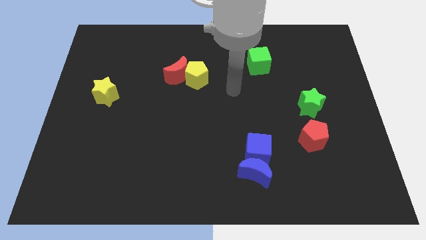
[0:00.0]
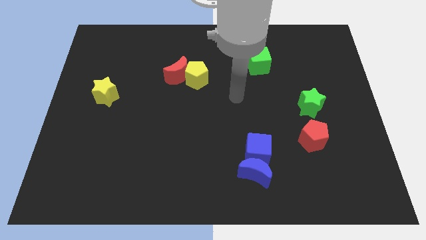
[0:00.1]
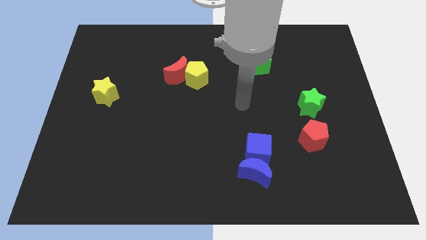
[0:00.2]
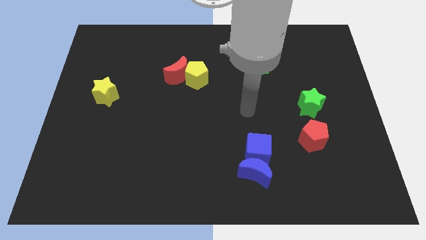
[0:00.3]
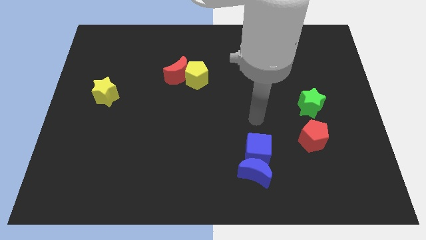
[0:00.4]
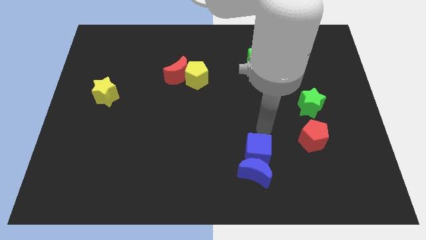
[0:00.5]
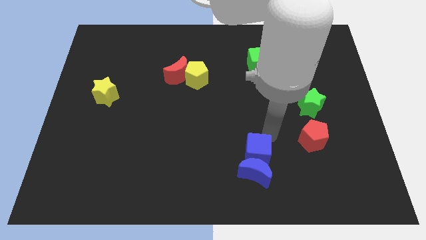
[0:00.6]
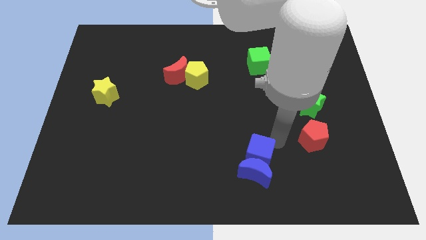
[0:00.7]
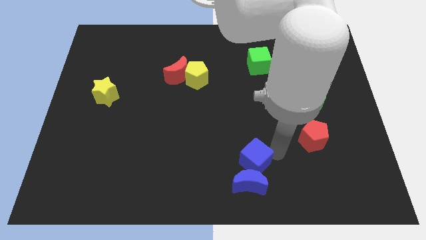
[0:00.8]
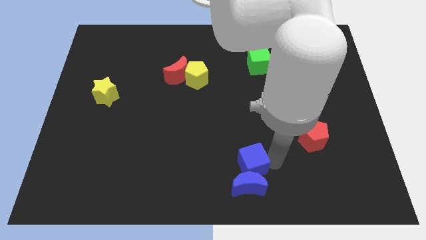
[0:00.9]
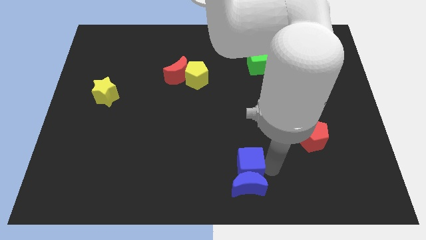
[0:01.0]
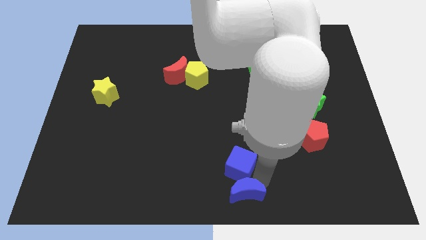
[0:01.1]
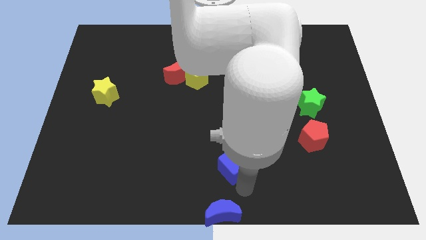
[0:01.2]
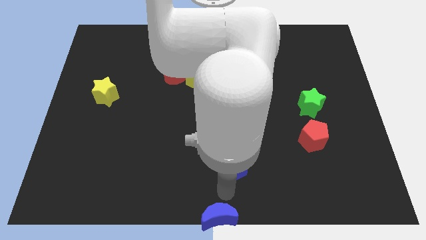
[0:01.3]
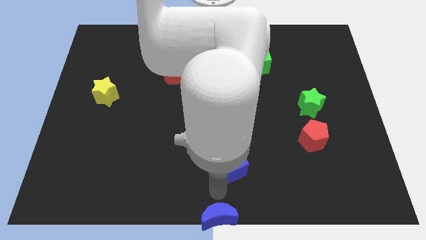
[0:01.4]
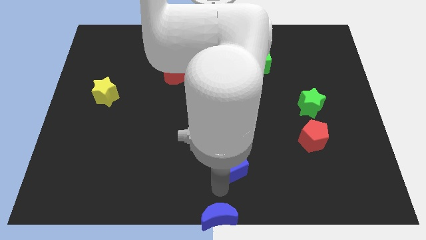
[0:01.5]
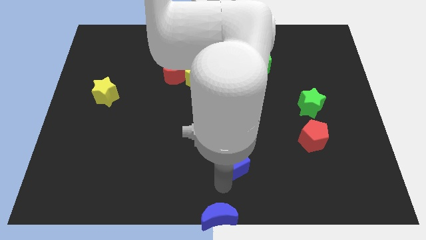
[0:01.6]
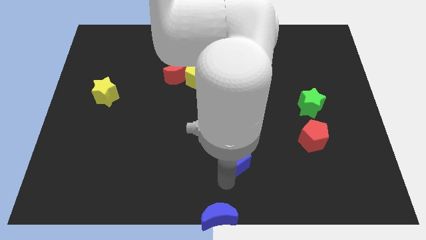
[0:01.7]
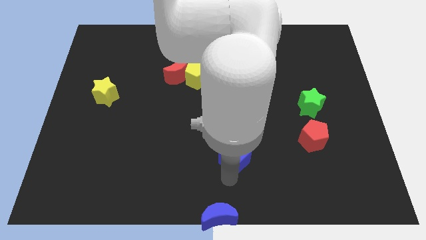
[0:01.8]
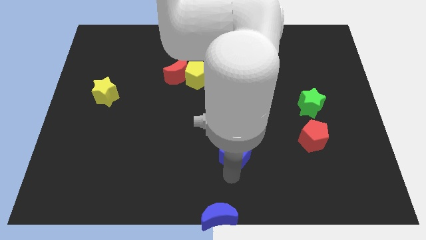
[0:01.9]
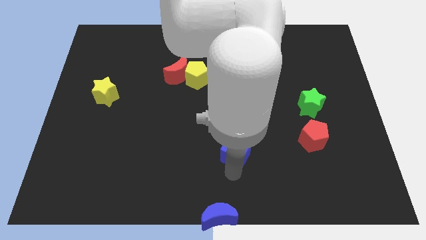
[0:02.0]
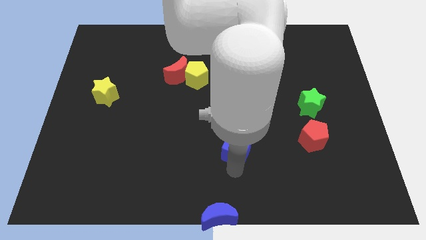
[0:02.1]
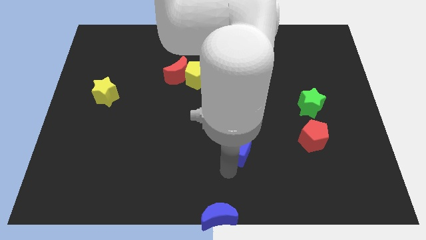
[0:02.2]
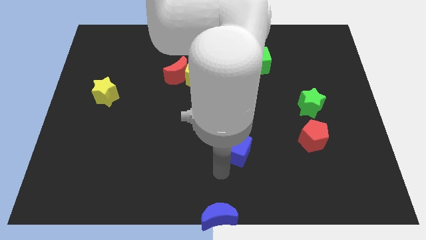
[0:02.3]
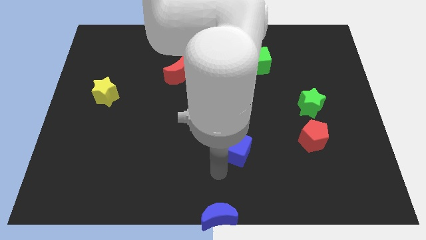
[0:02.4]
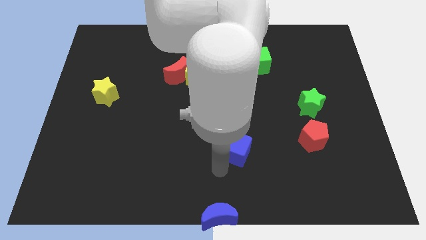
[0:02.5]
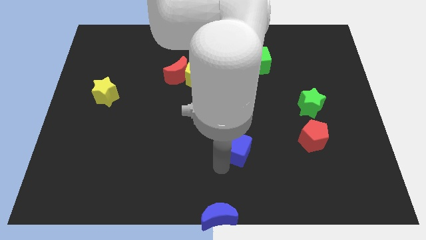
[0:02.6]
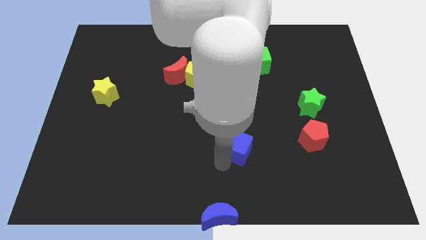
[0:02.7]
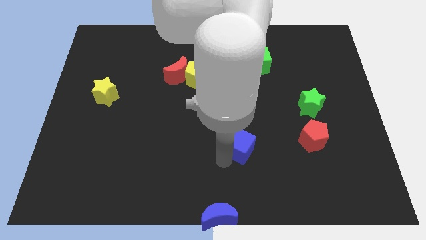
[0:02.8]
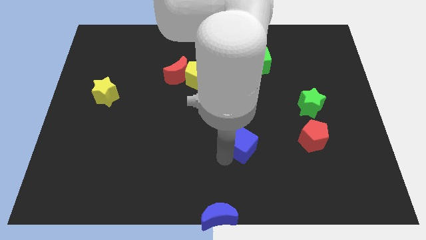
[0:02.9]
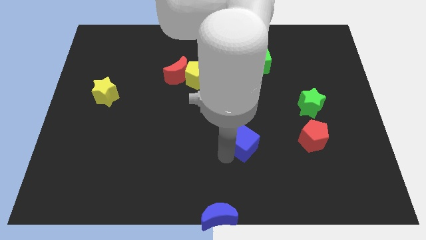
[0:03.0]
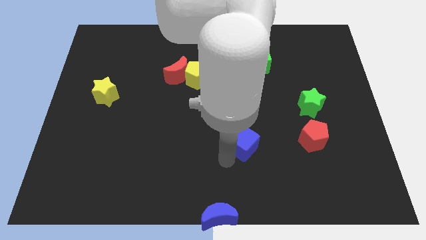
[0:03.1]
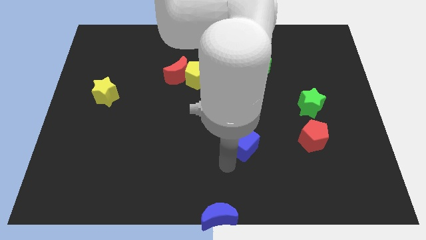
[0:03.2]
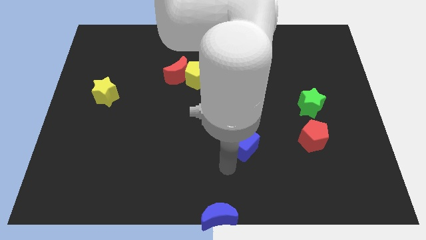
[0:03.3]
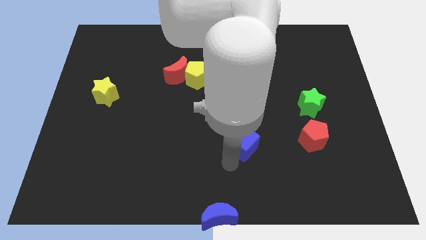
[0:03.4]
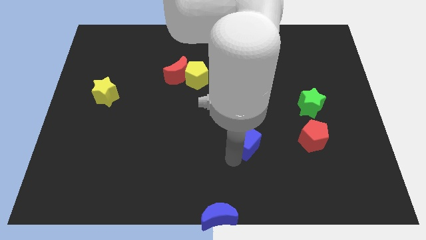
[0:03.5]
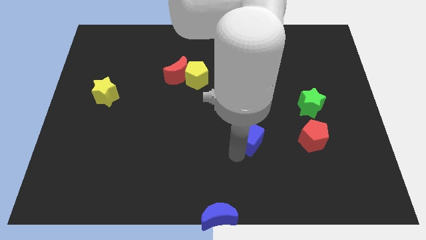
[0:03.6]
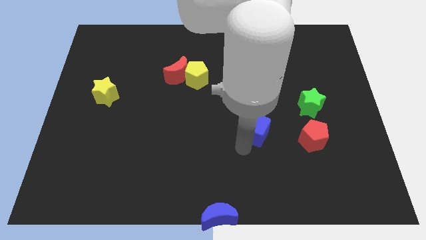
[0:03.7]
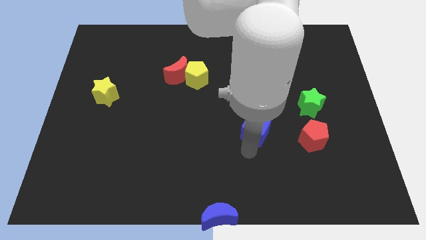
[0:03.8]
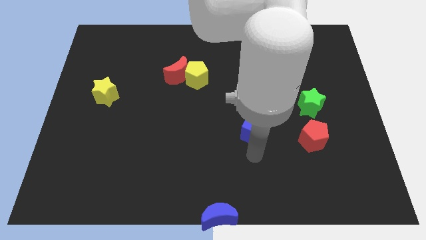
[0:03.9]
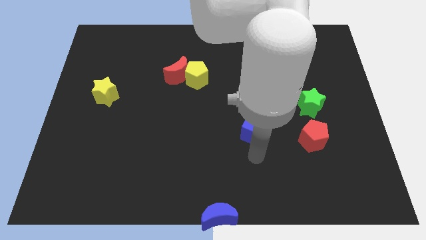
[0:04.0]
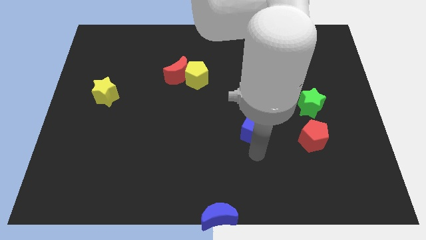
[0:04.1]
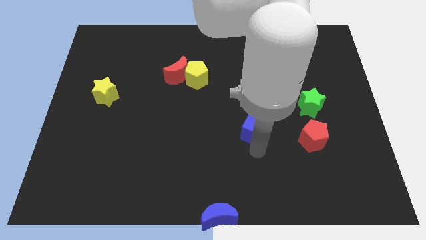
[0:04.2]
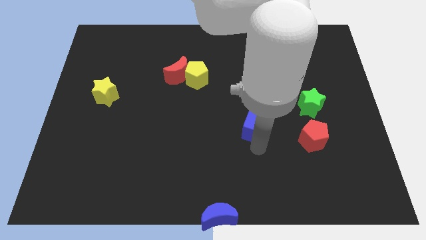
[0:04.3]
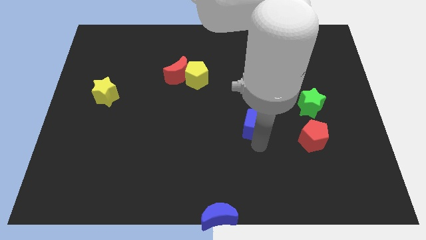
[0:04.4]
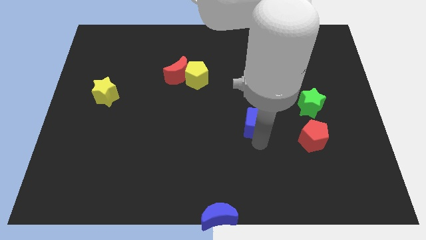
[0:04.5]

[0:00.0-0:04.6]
slide the blue cube slightly upwards

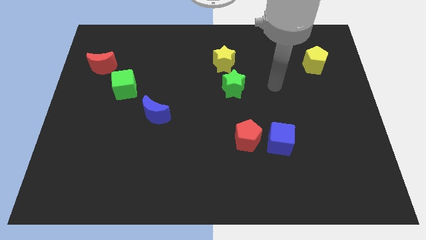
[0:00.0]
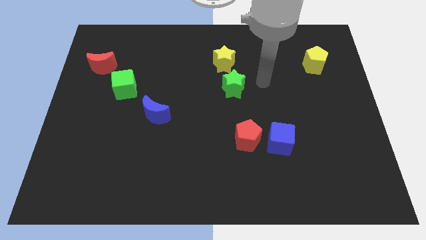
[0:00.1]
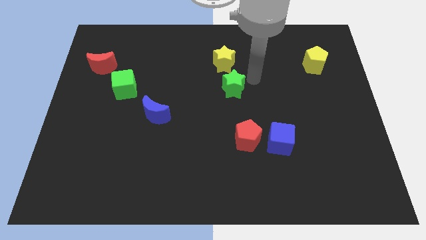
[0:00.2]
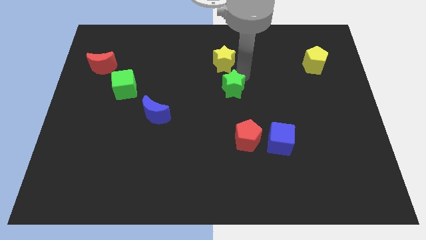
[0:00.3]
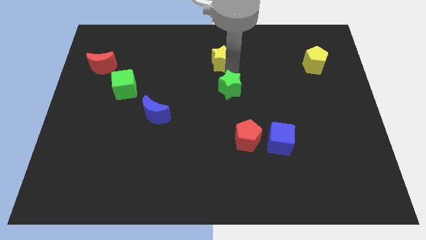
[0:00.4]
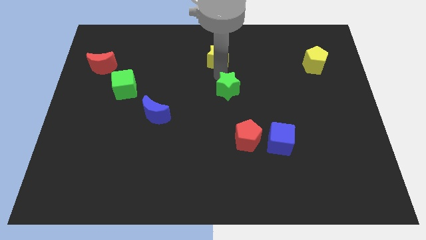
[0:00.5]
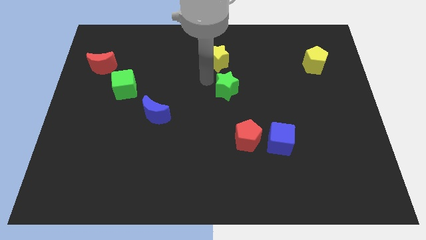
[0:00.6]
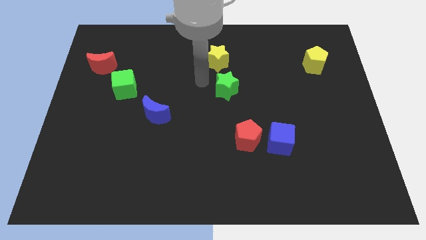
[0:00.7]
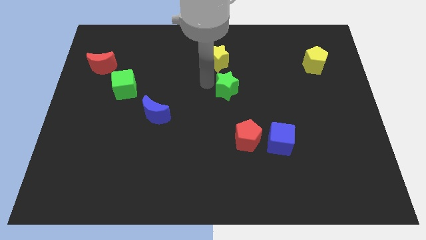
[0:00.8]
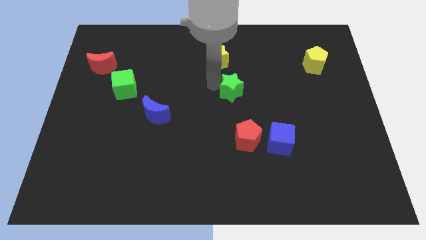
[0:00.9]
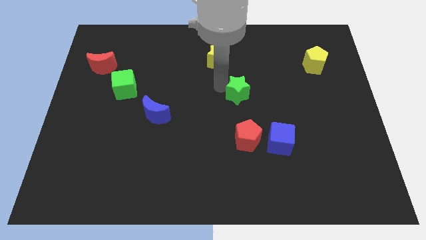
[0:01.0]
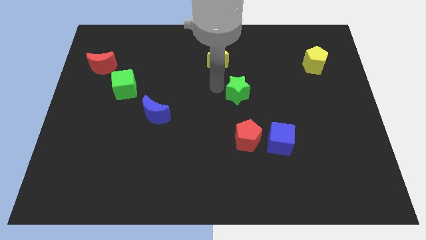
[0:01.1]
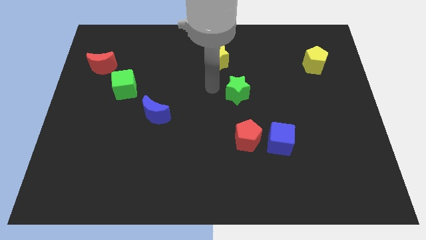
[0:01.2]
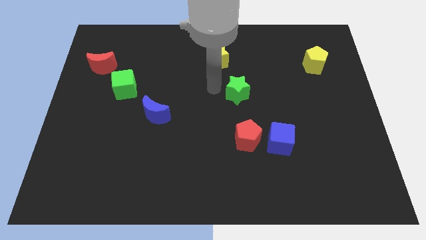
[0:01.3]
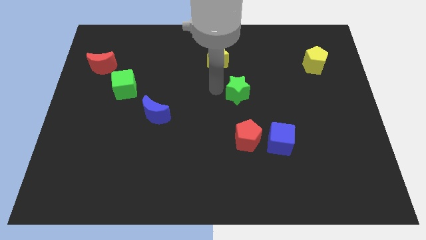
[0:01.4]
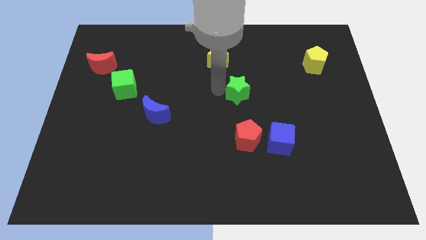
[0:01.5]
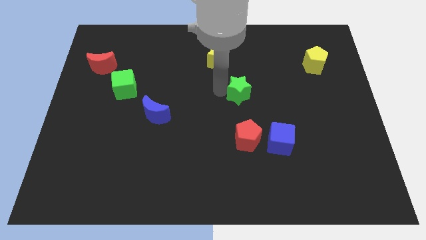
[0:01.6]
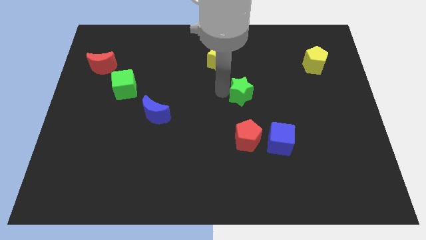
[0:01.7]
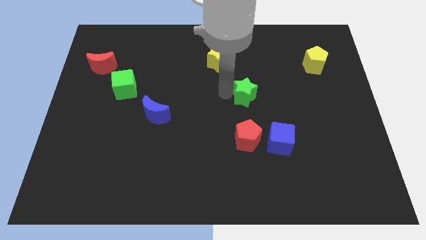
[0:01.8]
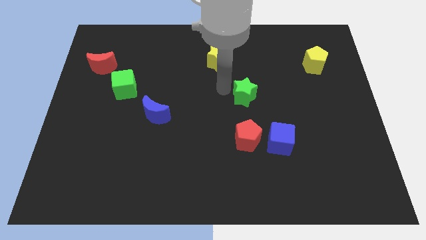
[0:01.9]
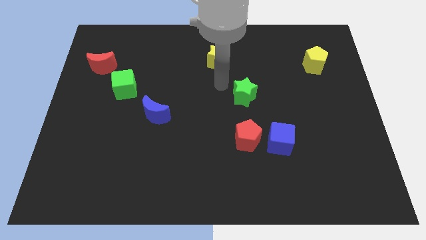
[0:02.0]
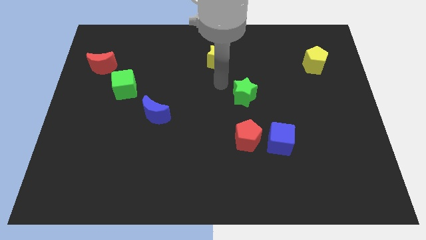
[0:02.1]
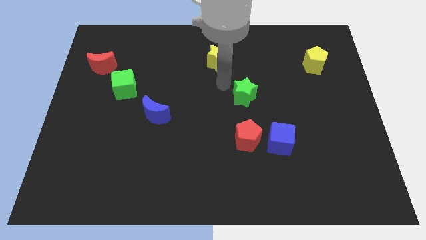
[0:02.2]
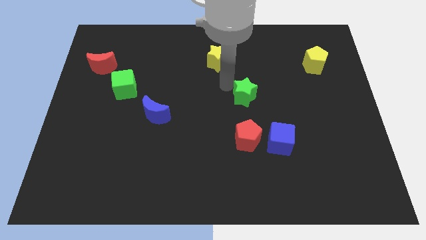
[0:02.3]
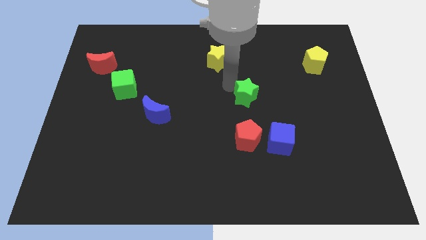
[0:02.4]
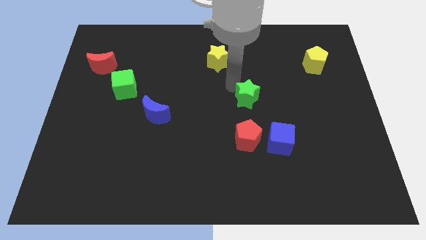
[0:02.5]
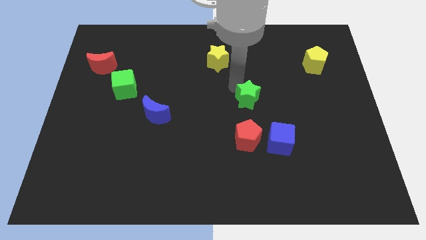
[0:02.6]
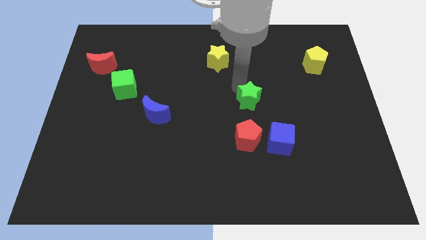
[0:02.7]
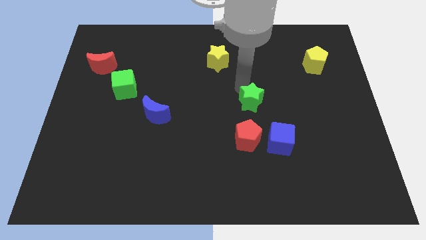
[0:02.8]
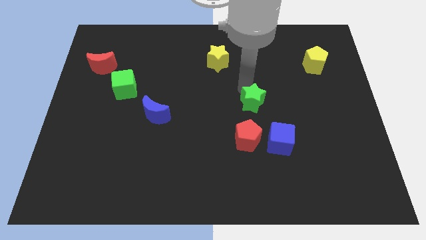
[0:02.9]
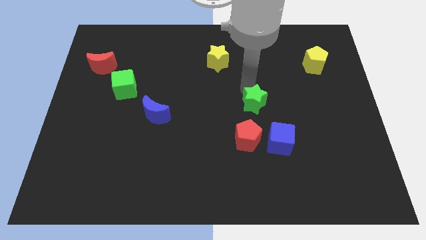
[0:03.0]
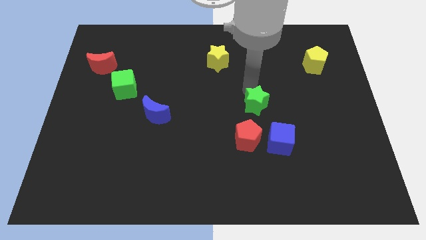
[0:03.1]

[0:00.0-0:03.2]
slide the green star downwards and to the right slightly

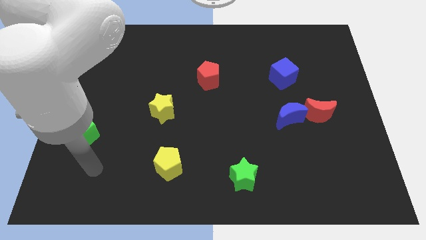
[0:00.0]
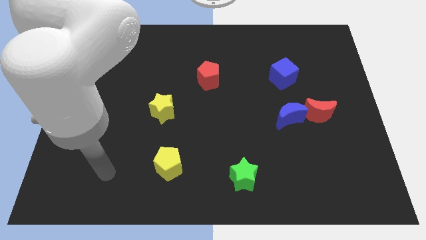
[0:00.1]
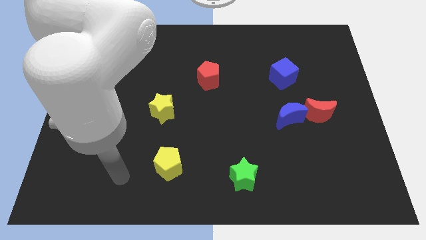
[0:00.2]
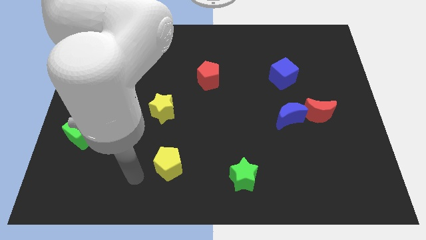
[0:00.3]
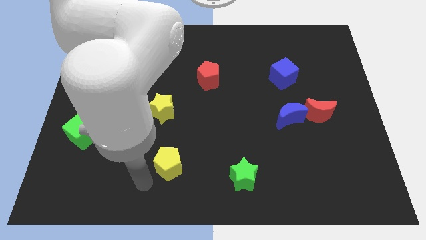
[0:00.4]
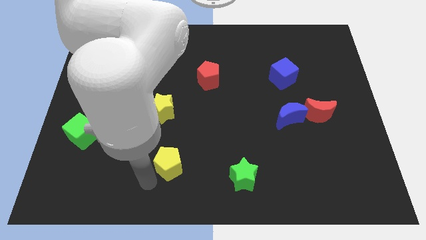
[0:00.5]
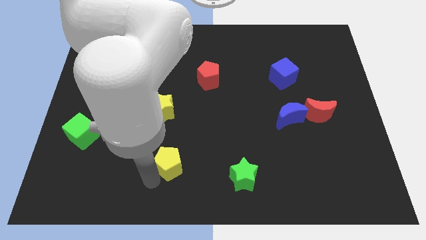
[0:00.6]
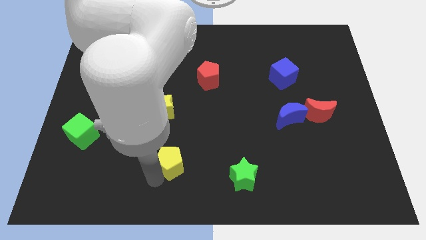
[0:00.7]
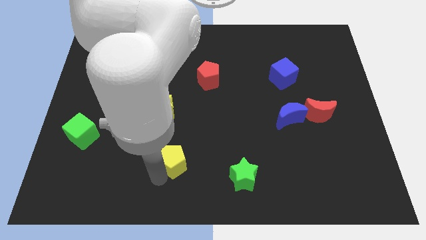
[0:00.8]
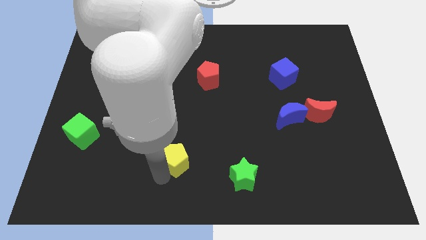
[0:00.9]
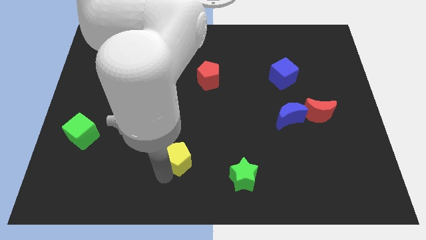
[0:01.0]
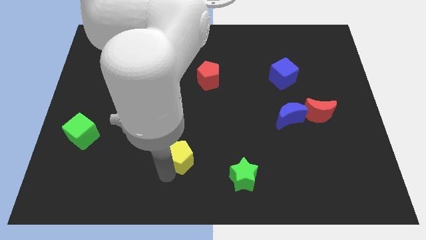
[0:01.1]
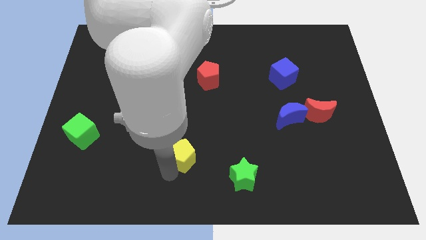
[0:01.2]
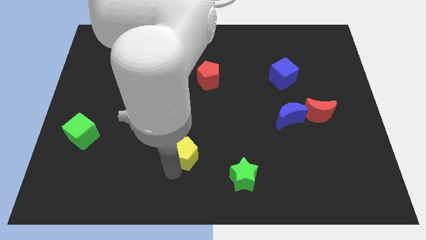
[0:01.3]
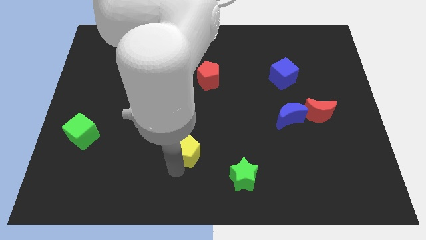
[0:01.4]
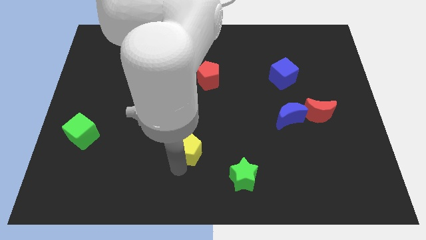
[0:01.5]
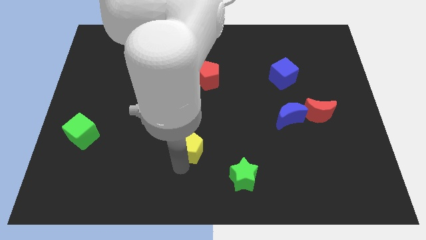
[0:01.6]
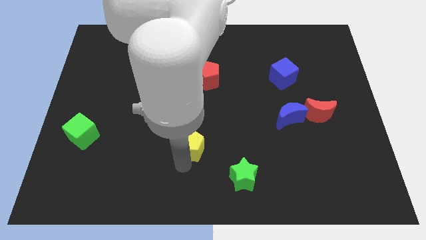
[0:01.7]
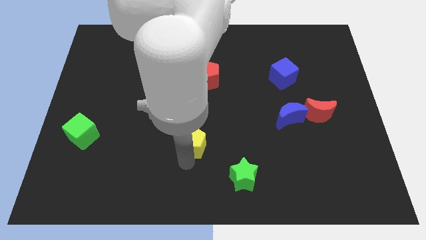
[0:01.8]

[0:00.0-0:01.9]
push the yellow pentagon somewhat up and to the right
